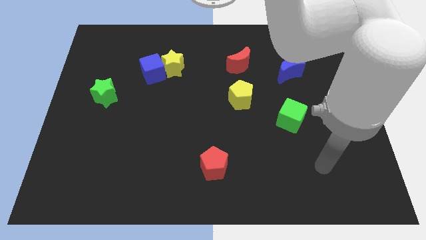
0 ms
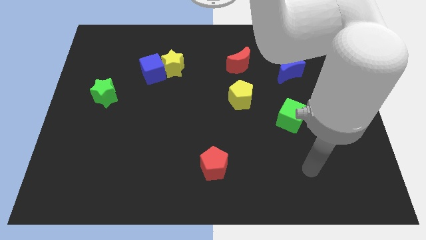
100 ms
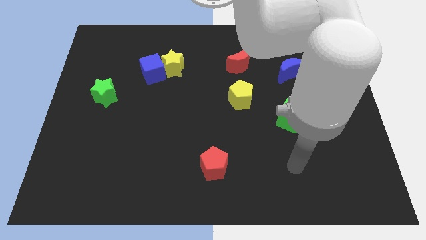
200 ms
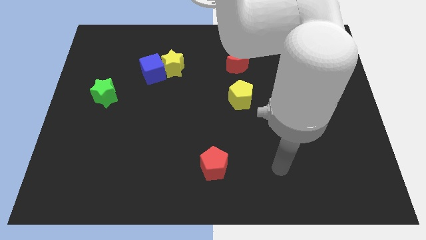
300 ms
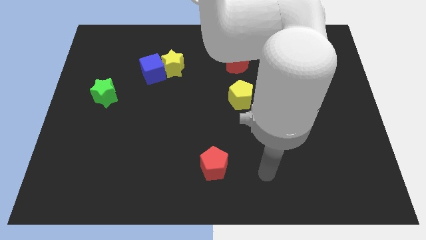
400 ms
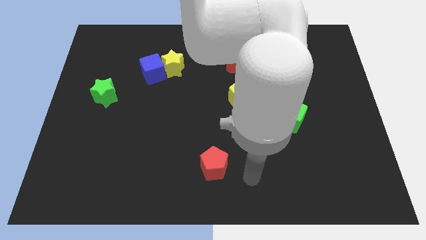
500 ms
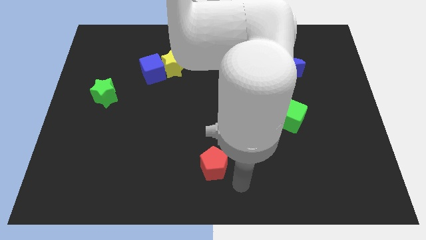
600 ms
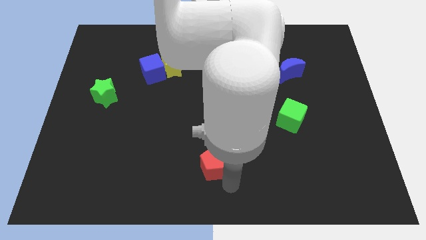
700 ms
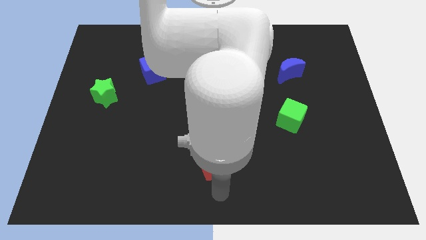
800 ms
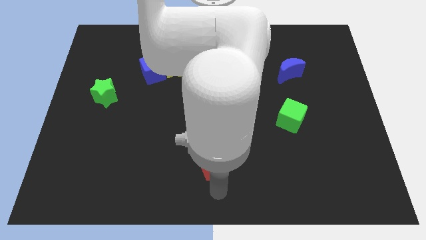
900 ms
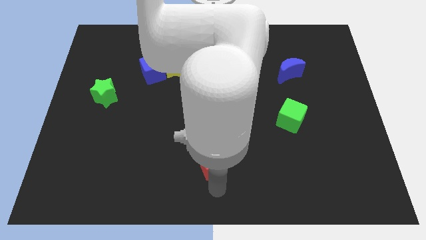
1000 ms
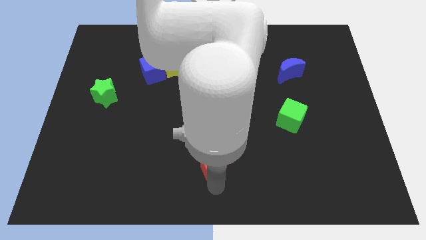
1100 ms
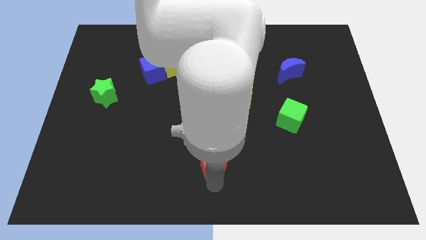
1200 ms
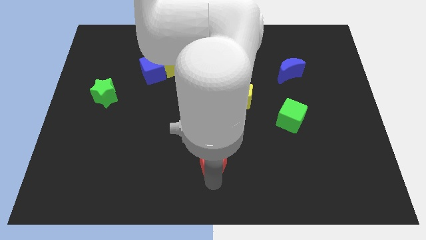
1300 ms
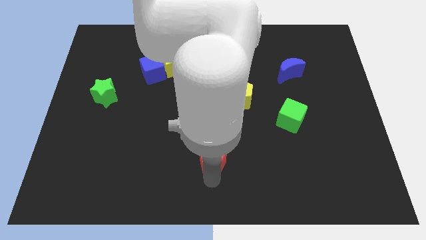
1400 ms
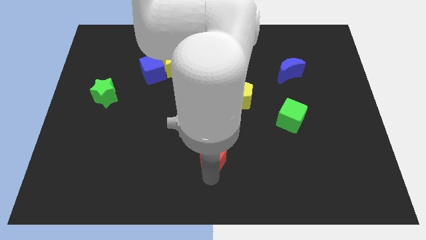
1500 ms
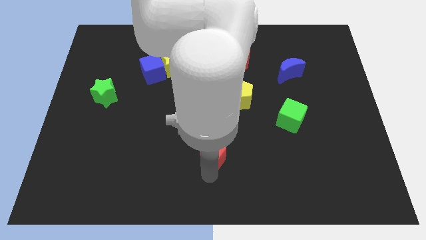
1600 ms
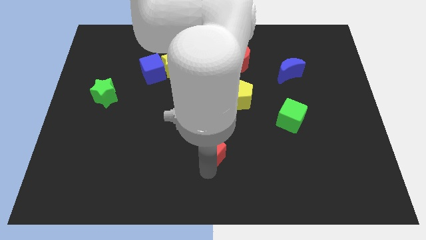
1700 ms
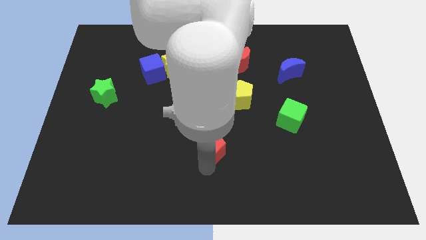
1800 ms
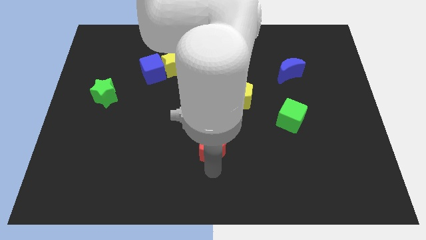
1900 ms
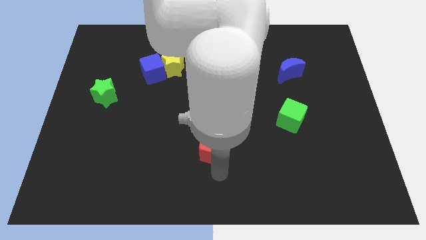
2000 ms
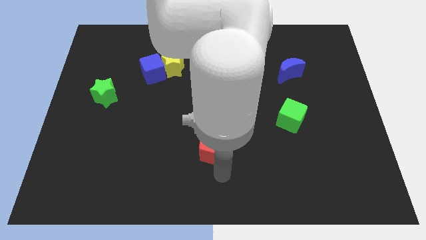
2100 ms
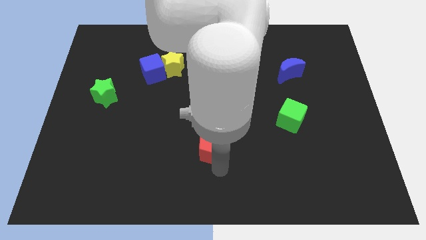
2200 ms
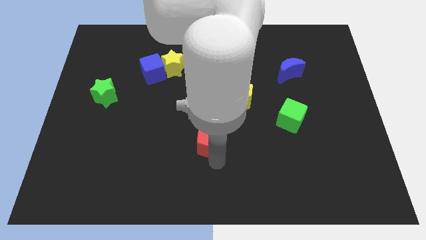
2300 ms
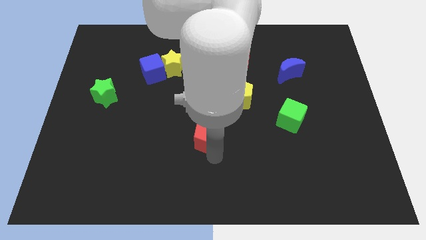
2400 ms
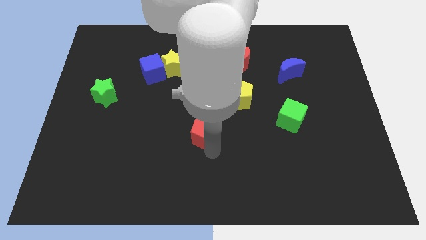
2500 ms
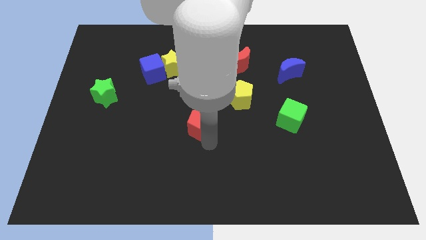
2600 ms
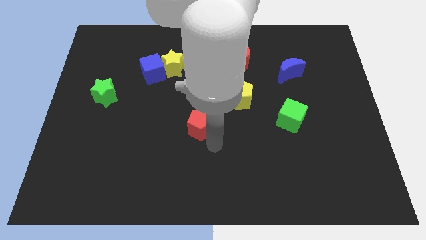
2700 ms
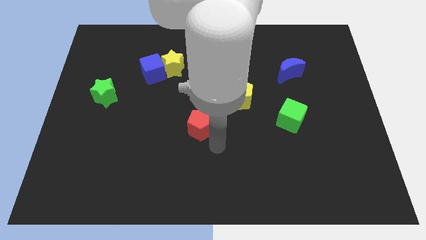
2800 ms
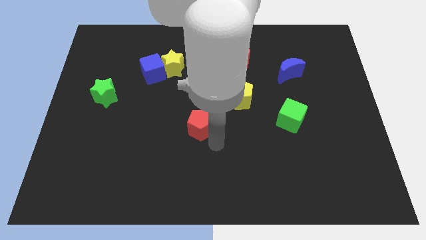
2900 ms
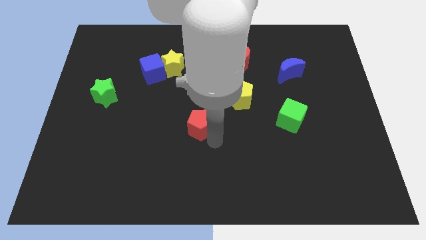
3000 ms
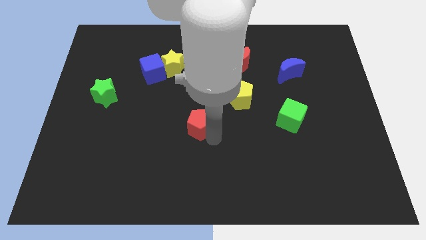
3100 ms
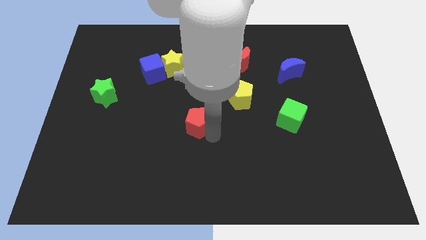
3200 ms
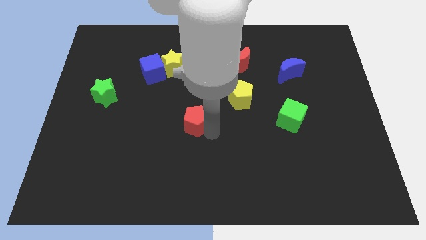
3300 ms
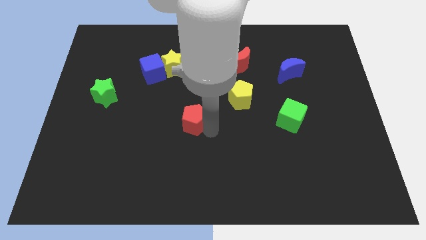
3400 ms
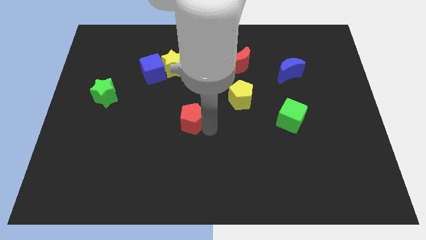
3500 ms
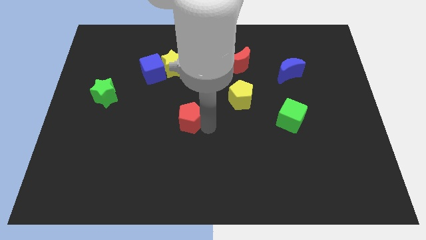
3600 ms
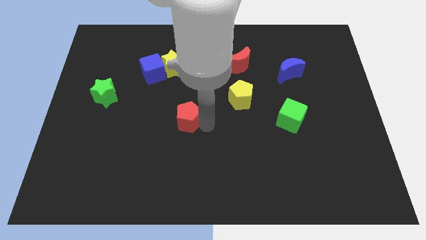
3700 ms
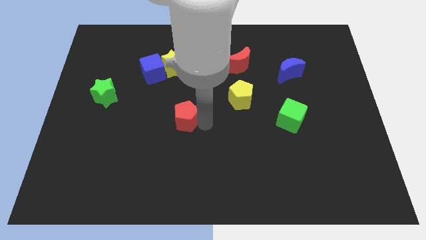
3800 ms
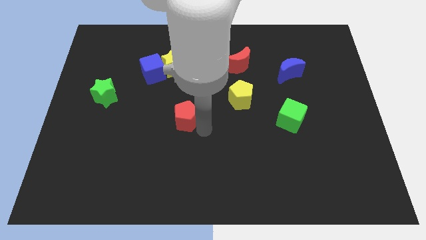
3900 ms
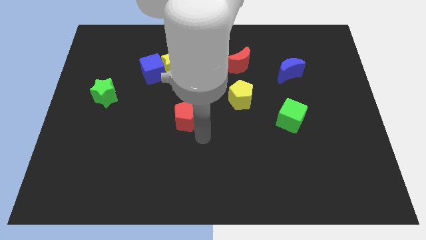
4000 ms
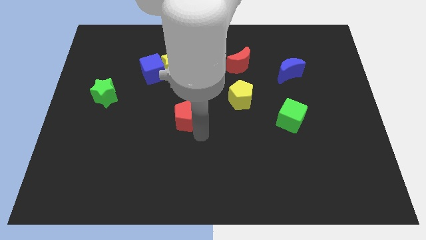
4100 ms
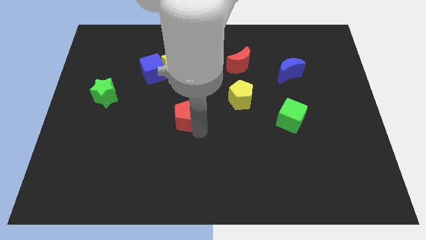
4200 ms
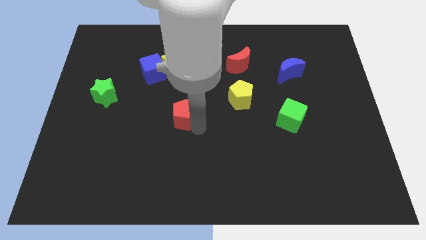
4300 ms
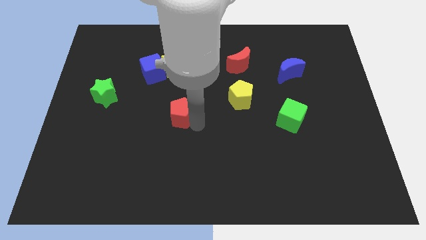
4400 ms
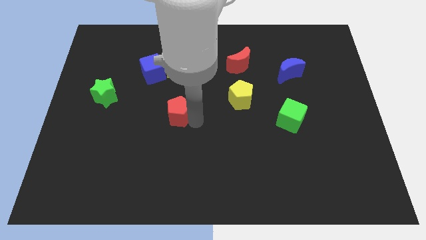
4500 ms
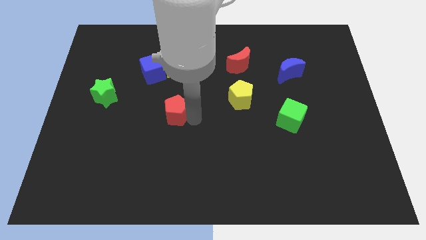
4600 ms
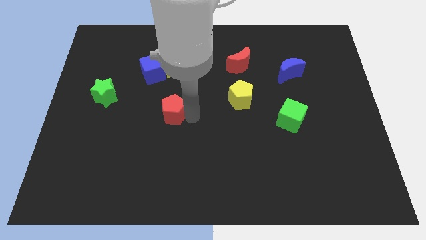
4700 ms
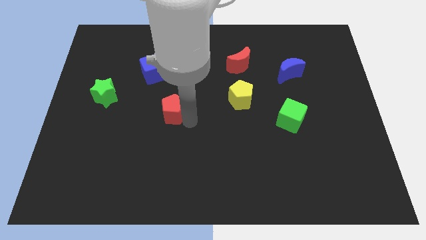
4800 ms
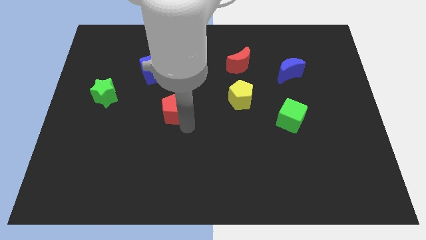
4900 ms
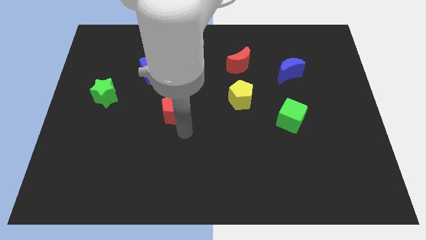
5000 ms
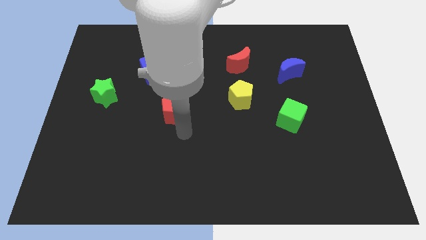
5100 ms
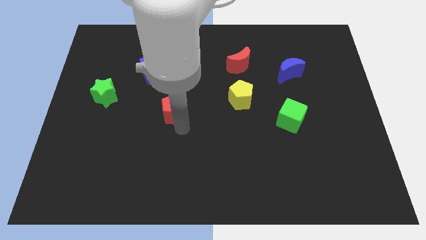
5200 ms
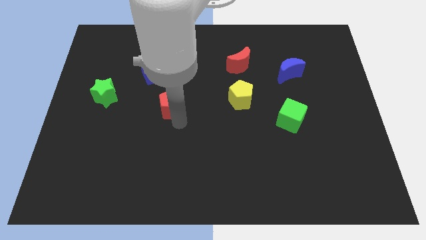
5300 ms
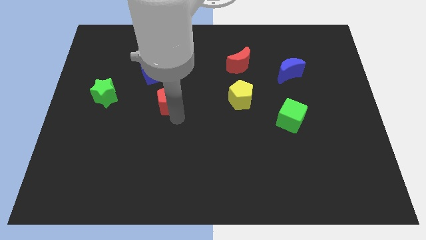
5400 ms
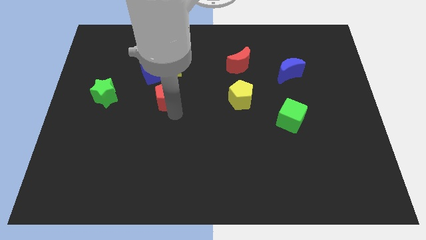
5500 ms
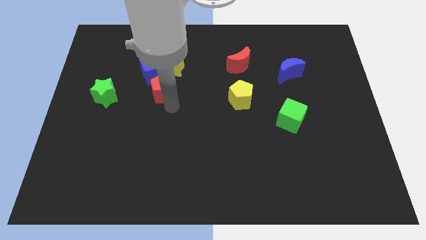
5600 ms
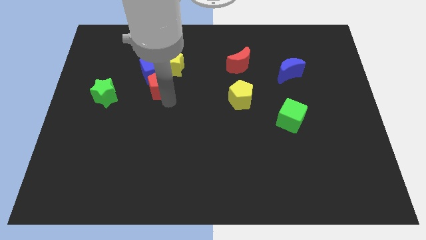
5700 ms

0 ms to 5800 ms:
slide the red pentagon close to the blue cube
